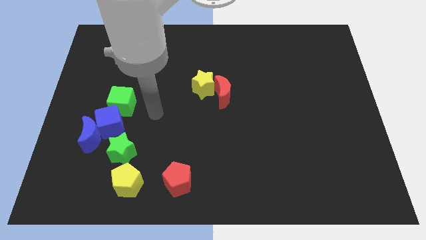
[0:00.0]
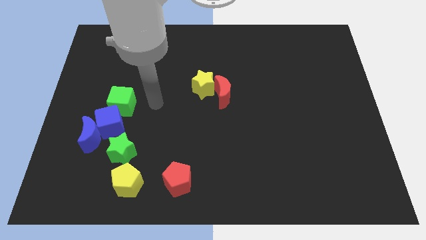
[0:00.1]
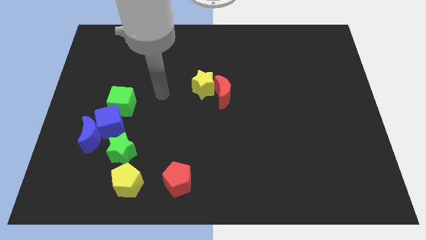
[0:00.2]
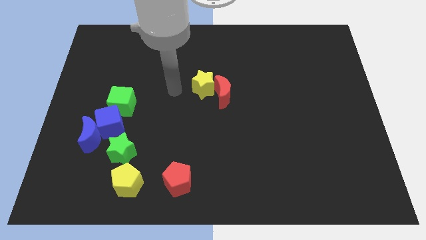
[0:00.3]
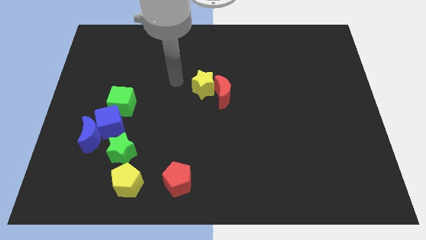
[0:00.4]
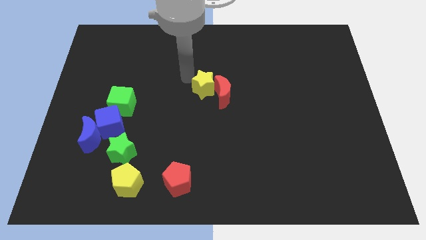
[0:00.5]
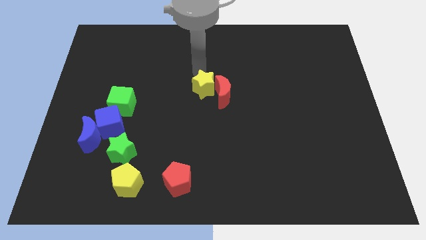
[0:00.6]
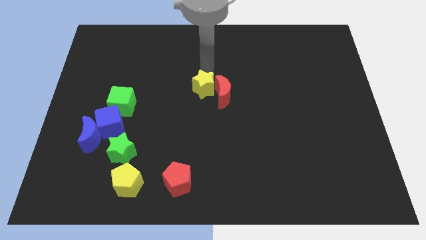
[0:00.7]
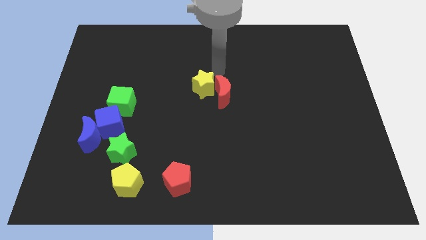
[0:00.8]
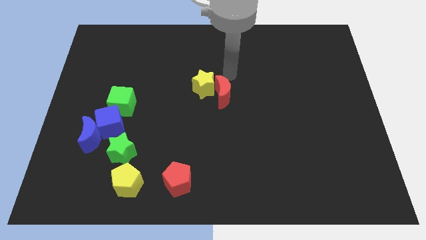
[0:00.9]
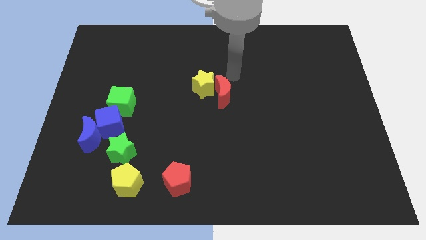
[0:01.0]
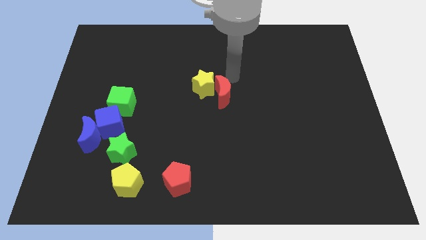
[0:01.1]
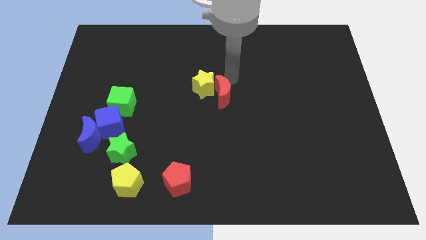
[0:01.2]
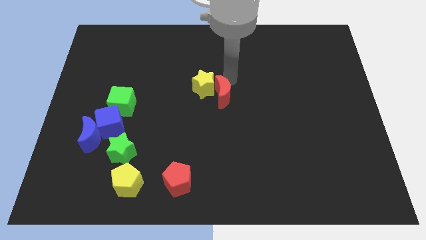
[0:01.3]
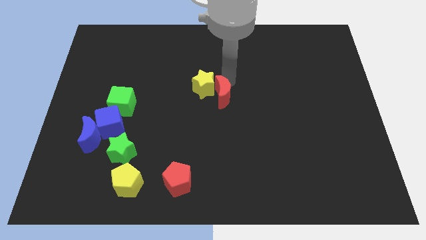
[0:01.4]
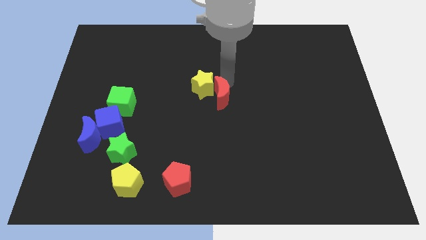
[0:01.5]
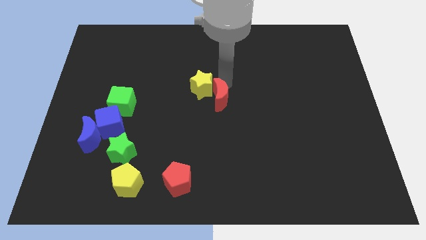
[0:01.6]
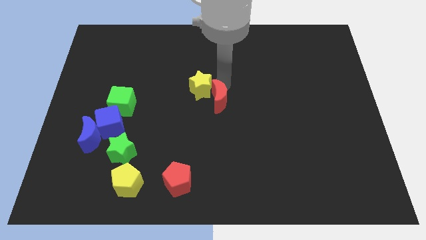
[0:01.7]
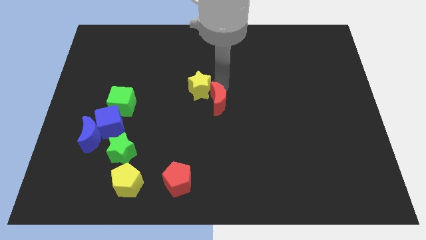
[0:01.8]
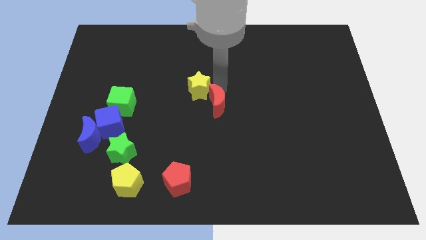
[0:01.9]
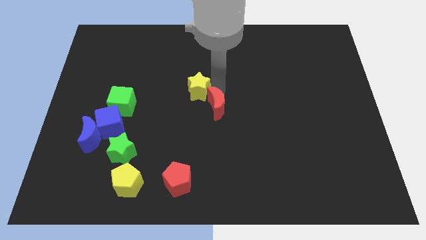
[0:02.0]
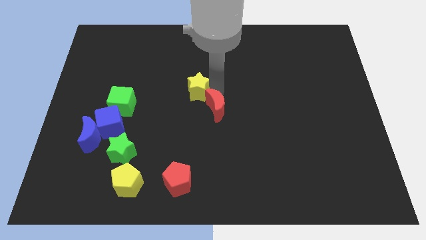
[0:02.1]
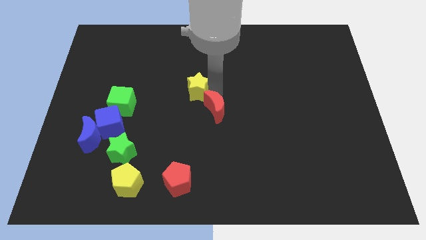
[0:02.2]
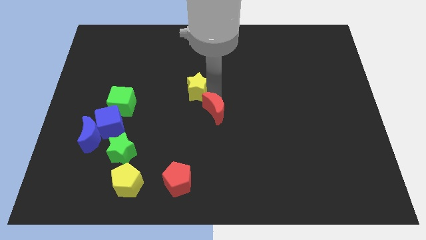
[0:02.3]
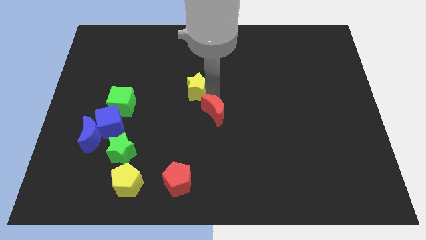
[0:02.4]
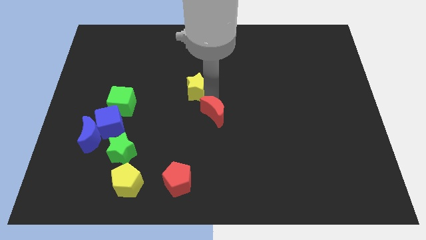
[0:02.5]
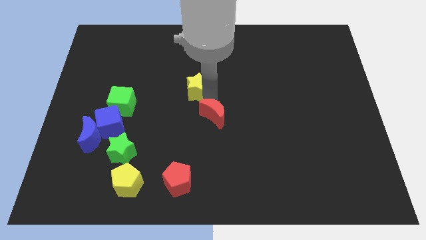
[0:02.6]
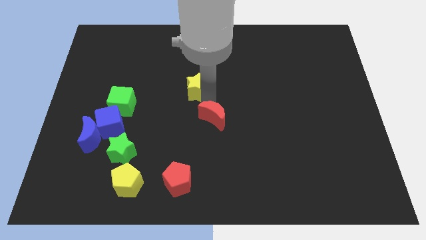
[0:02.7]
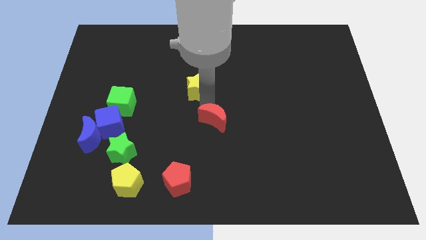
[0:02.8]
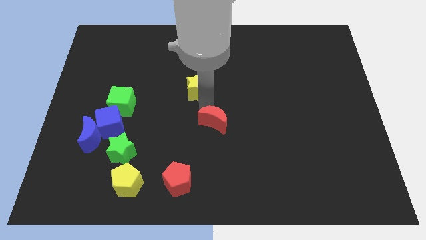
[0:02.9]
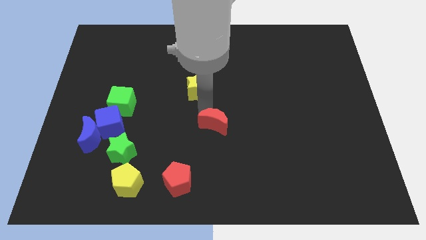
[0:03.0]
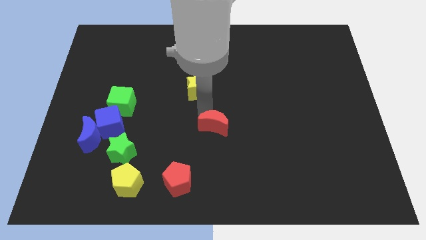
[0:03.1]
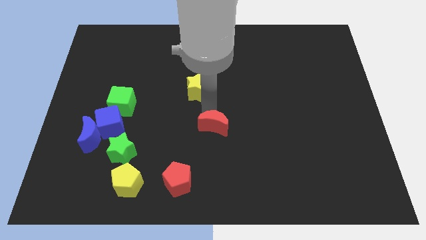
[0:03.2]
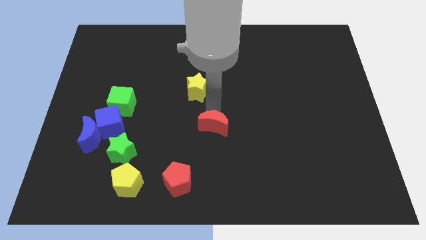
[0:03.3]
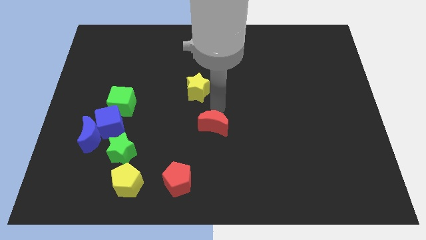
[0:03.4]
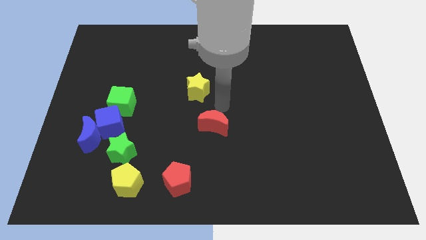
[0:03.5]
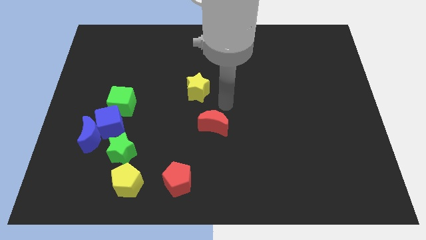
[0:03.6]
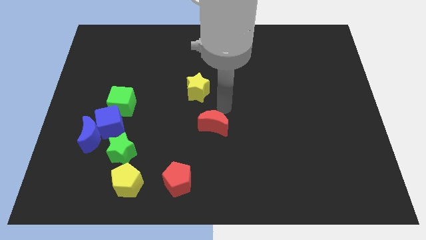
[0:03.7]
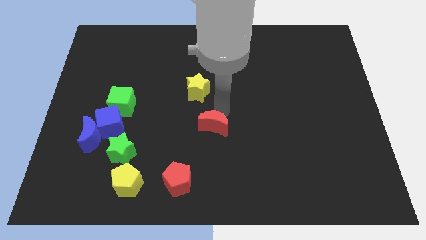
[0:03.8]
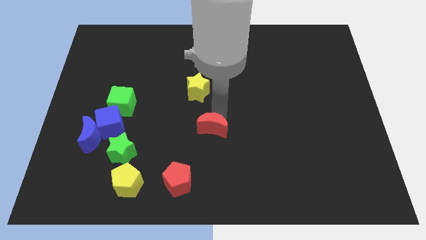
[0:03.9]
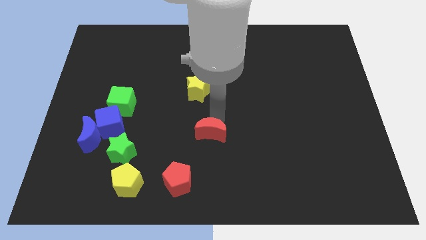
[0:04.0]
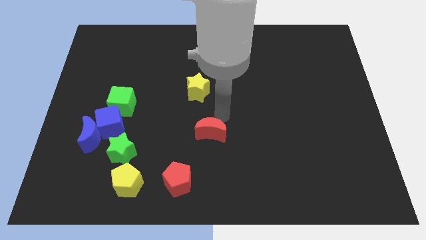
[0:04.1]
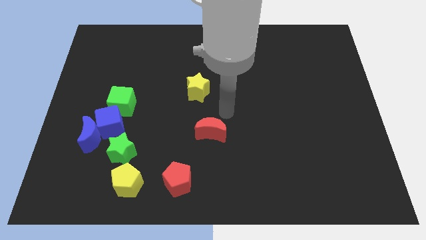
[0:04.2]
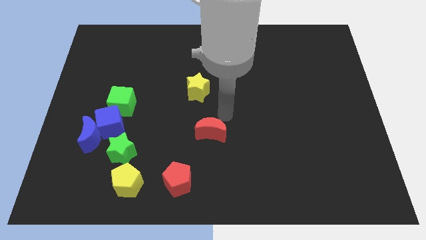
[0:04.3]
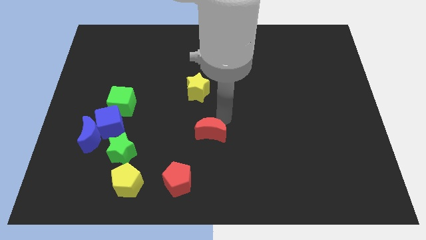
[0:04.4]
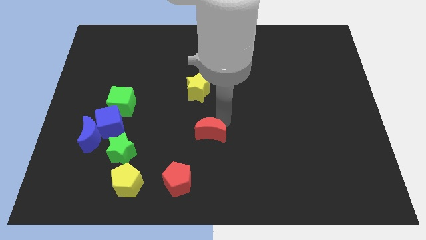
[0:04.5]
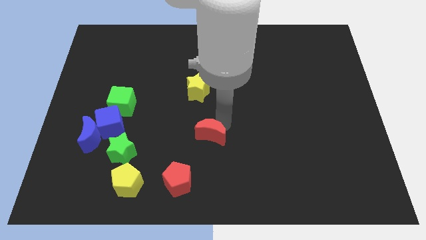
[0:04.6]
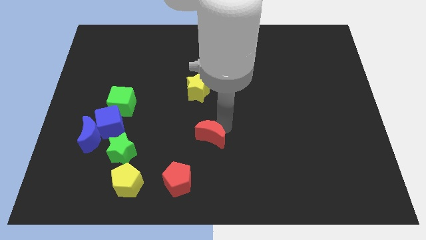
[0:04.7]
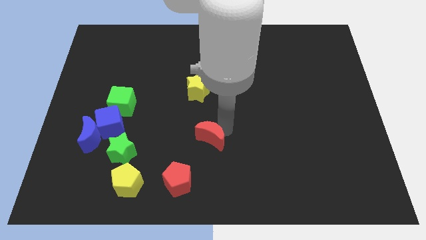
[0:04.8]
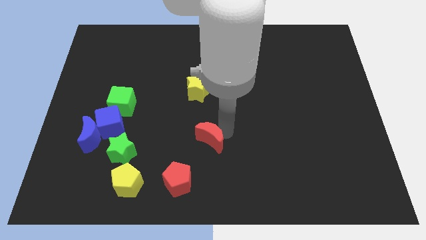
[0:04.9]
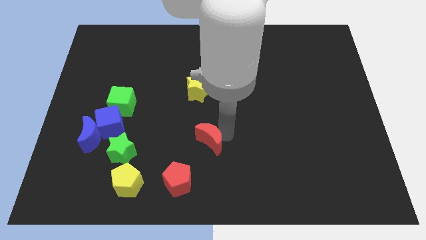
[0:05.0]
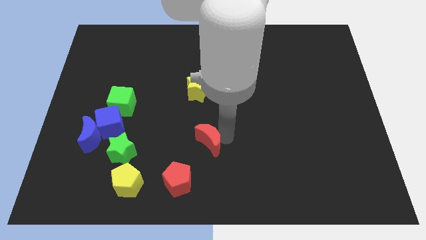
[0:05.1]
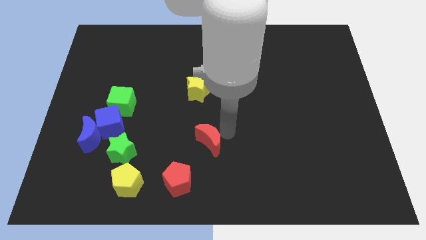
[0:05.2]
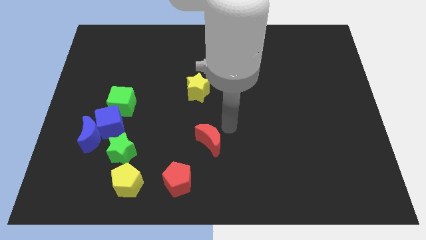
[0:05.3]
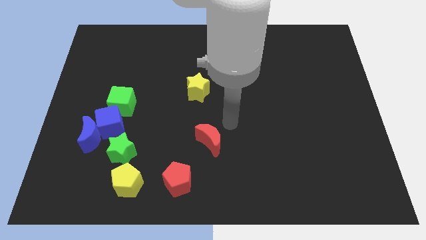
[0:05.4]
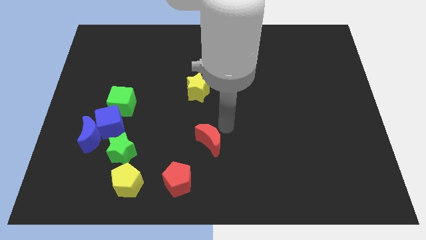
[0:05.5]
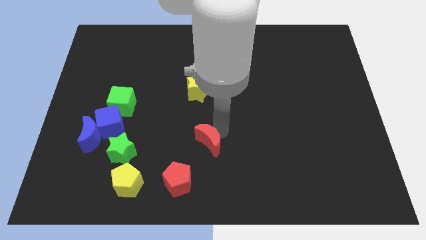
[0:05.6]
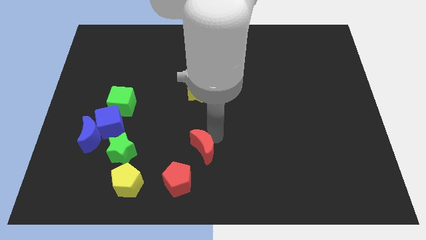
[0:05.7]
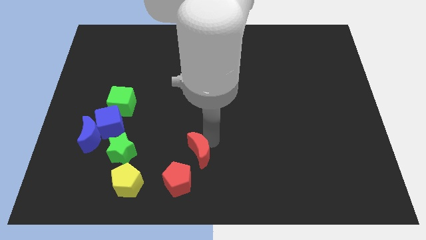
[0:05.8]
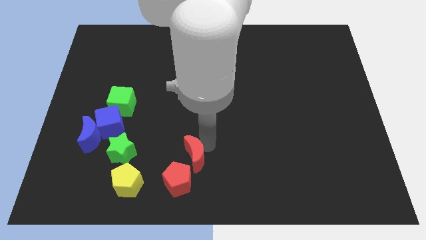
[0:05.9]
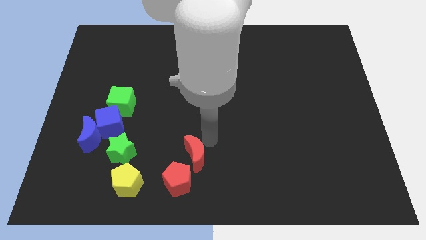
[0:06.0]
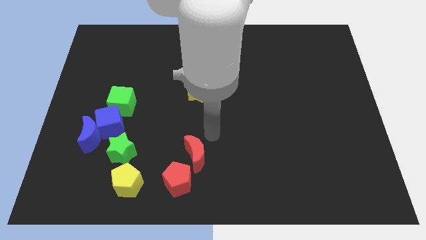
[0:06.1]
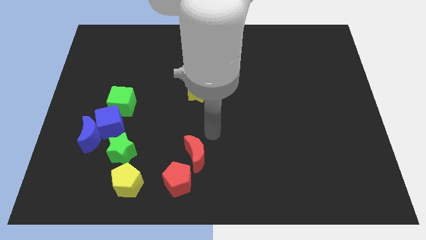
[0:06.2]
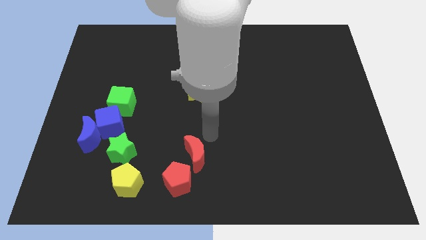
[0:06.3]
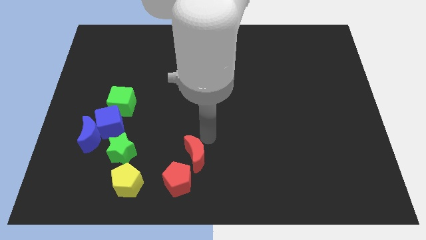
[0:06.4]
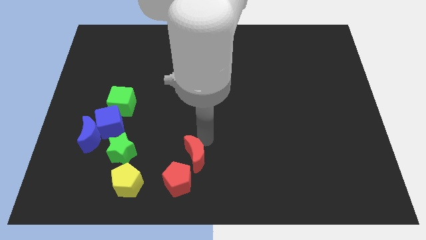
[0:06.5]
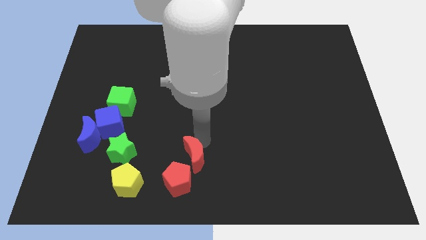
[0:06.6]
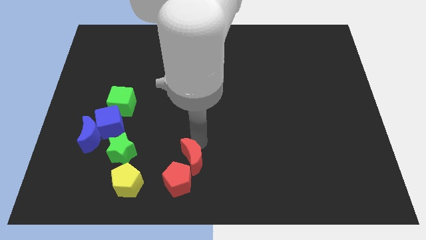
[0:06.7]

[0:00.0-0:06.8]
move the red moon towards the red pentagon

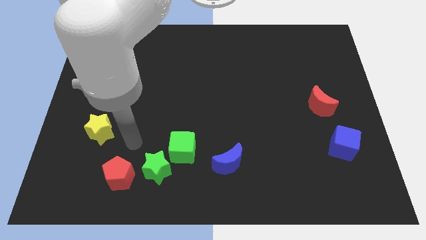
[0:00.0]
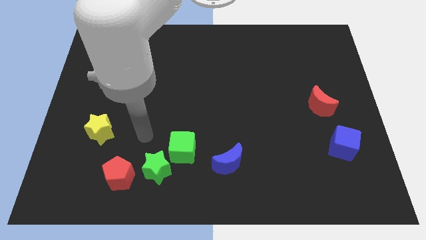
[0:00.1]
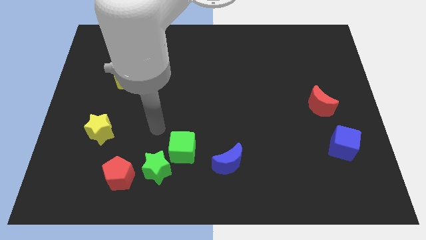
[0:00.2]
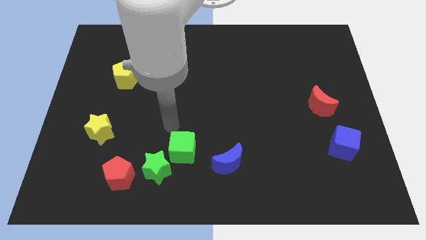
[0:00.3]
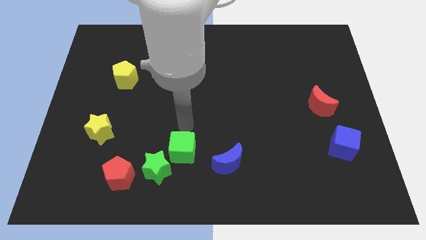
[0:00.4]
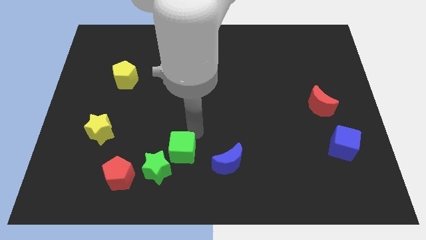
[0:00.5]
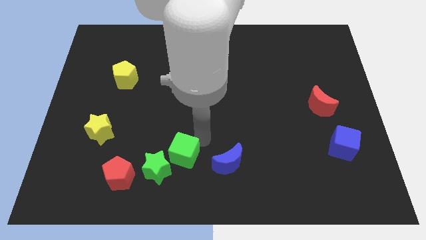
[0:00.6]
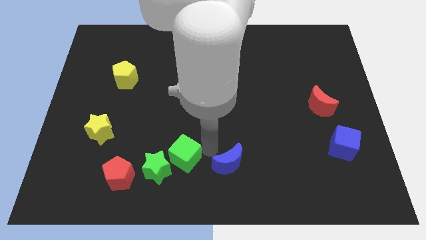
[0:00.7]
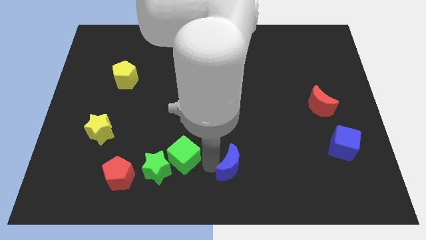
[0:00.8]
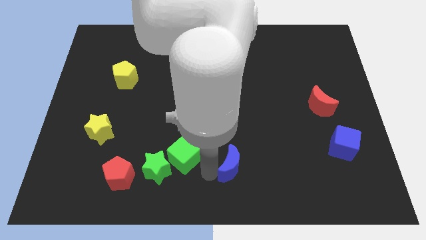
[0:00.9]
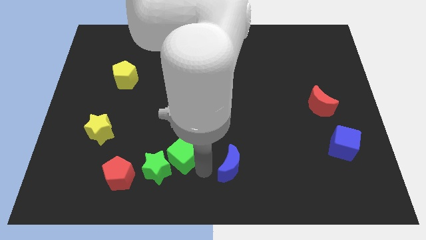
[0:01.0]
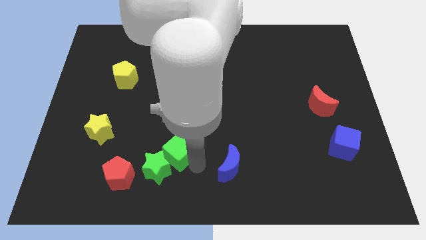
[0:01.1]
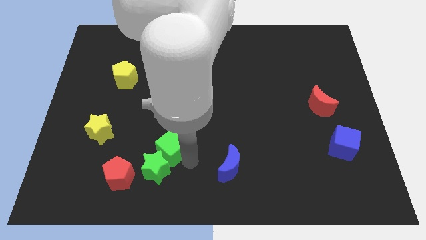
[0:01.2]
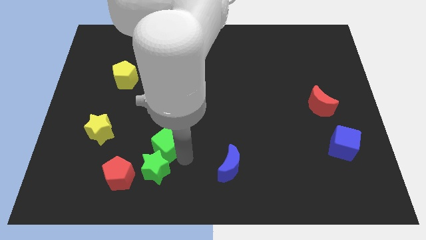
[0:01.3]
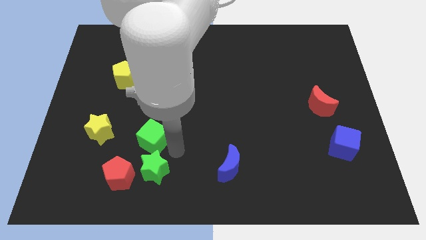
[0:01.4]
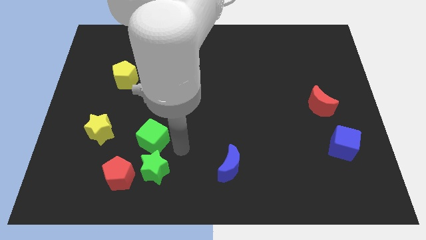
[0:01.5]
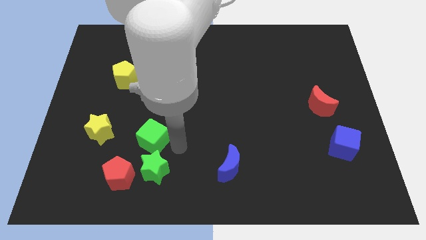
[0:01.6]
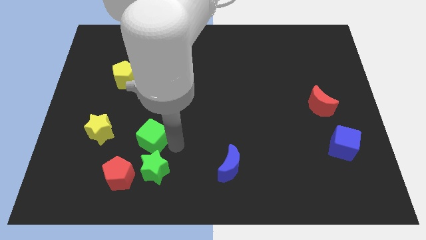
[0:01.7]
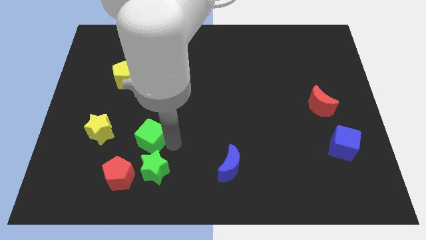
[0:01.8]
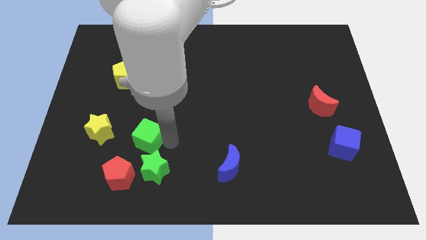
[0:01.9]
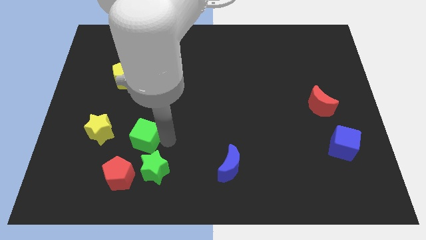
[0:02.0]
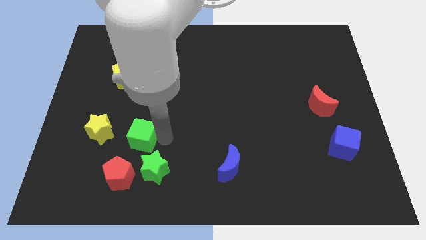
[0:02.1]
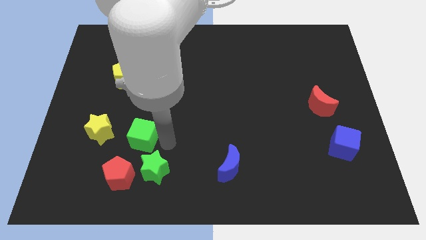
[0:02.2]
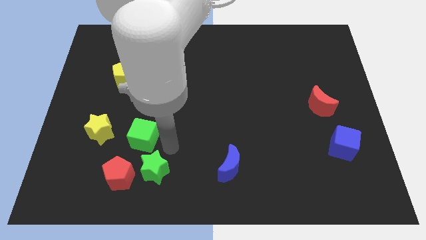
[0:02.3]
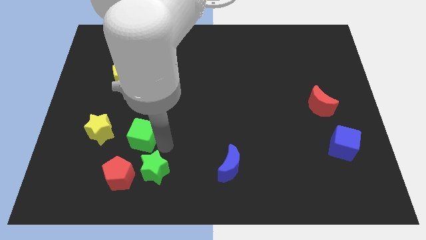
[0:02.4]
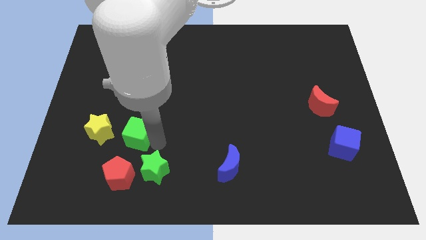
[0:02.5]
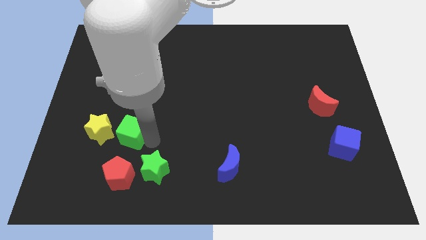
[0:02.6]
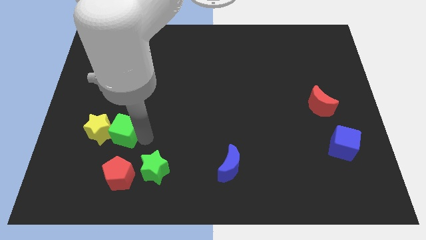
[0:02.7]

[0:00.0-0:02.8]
push the green cube close to the yellow star
